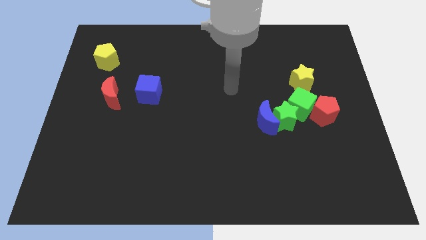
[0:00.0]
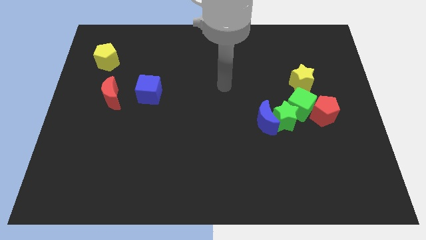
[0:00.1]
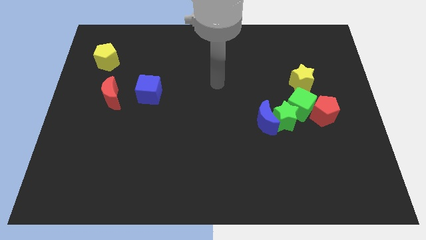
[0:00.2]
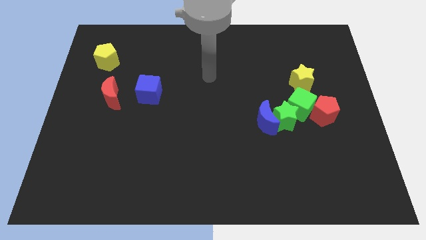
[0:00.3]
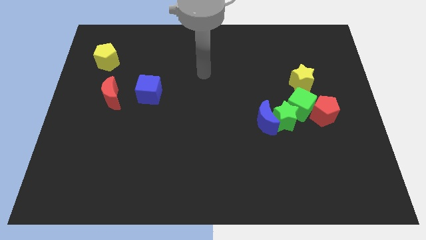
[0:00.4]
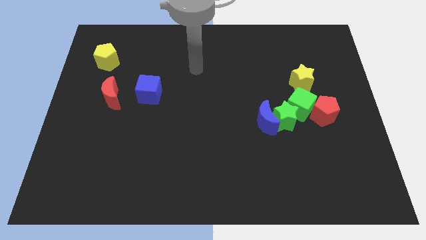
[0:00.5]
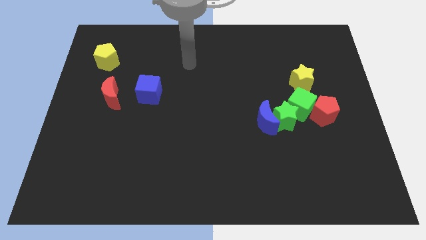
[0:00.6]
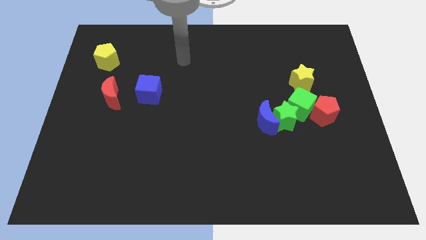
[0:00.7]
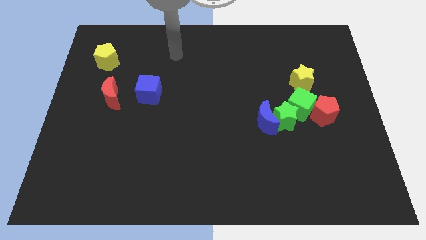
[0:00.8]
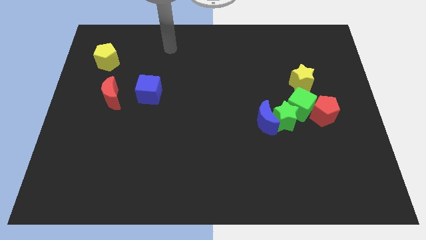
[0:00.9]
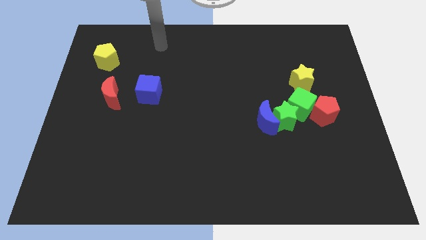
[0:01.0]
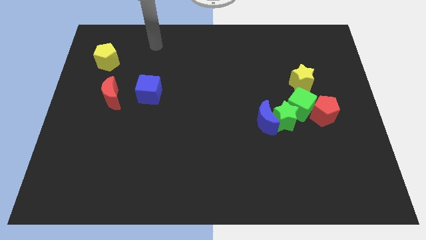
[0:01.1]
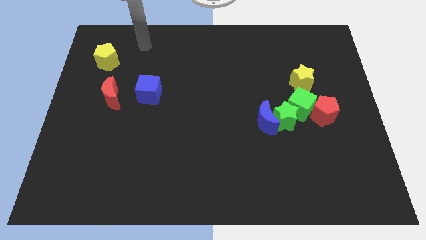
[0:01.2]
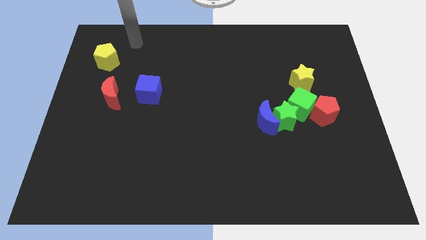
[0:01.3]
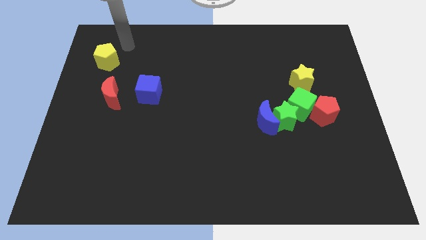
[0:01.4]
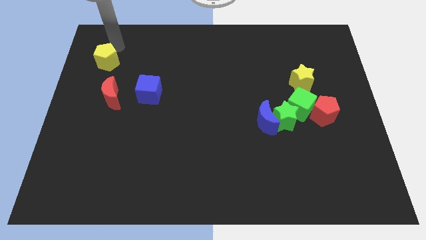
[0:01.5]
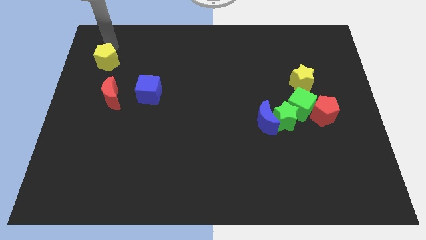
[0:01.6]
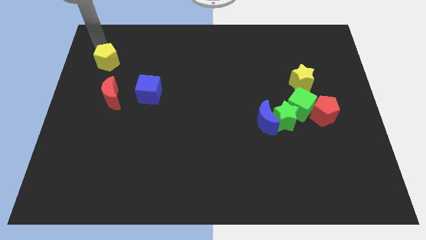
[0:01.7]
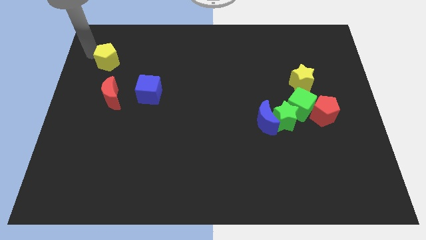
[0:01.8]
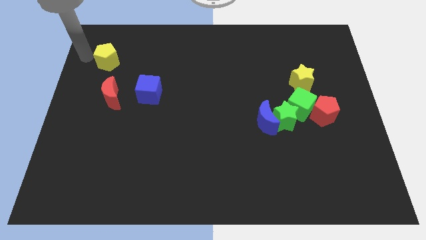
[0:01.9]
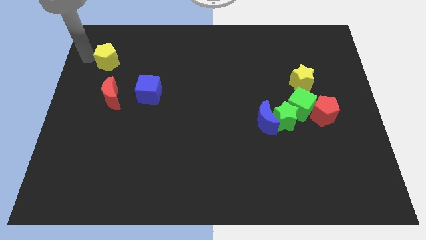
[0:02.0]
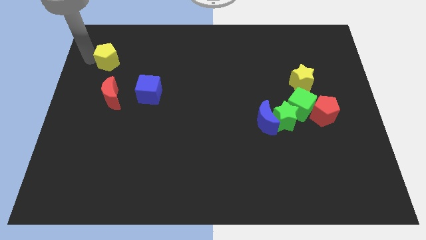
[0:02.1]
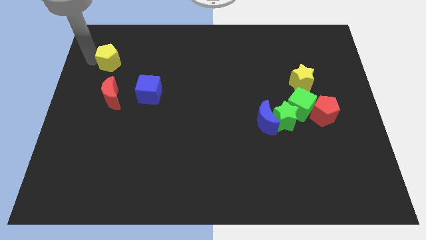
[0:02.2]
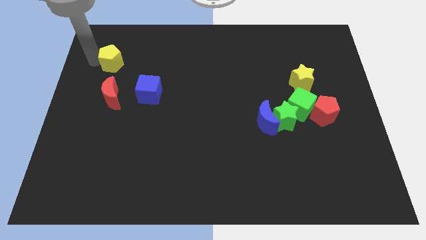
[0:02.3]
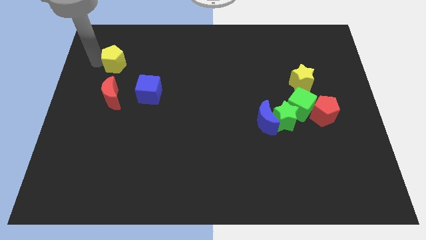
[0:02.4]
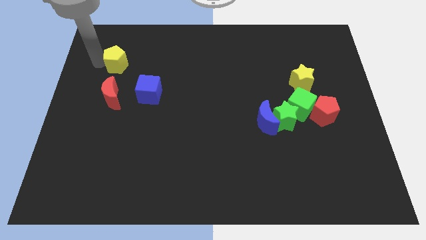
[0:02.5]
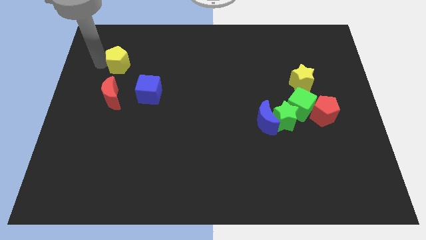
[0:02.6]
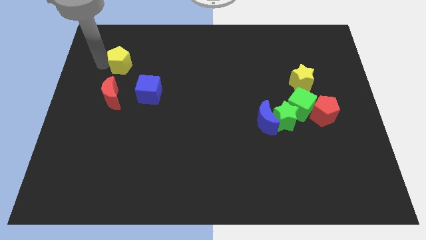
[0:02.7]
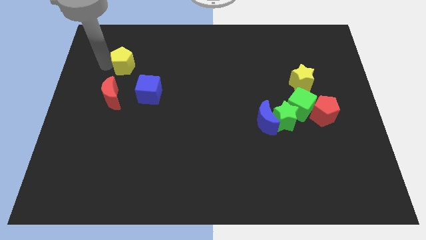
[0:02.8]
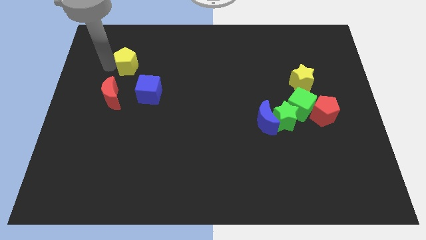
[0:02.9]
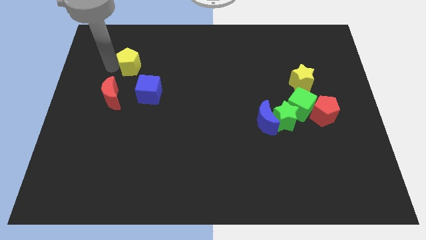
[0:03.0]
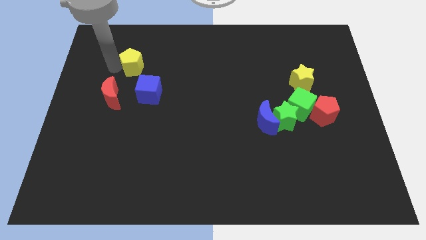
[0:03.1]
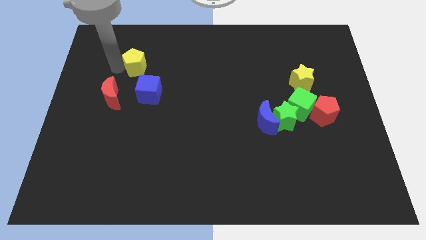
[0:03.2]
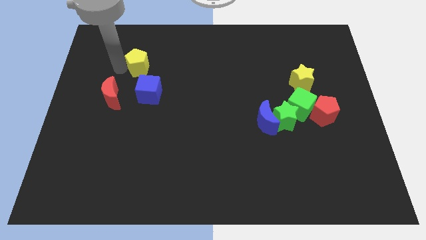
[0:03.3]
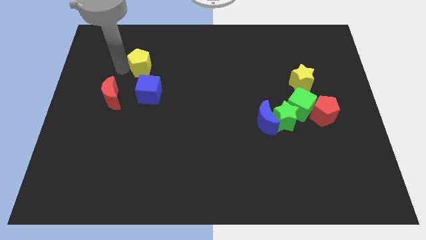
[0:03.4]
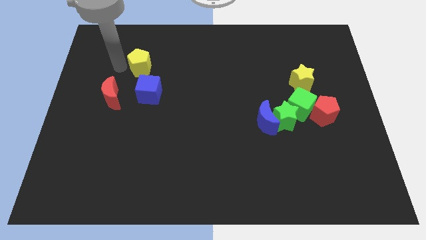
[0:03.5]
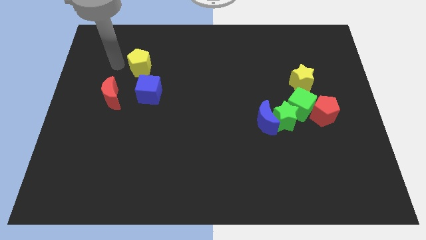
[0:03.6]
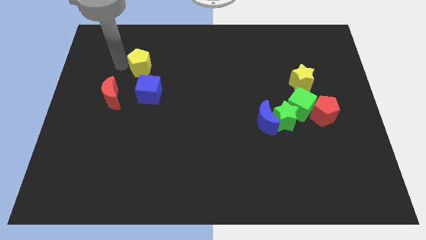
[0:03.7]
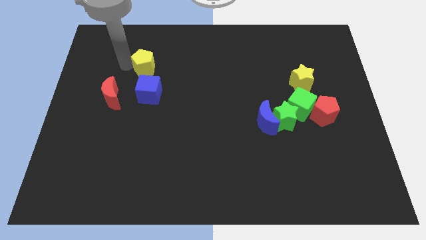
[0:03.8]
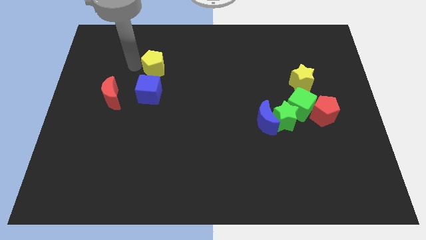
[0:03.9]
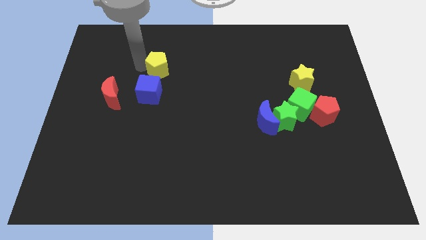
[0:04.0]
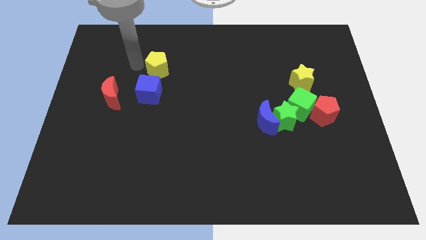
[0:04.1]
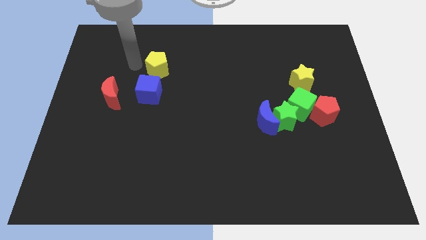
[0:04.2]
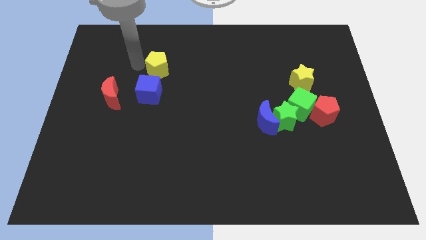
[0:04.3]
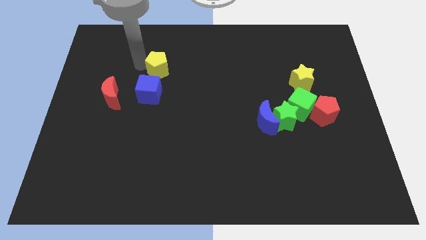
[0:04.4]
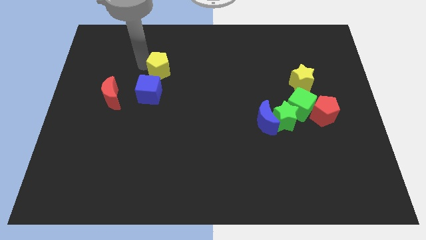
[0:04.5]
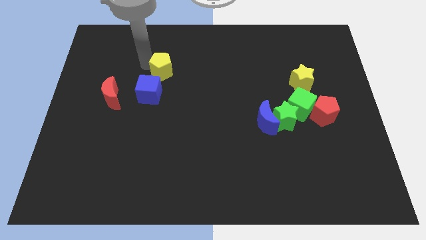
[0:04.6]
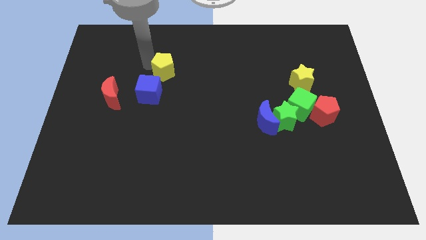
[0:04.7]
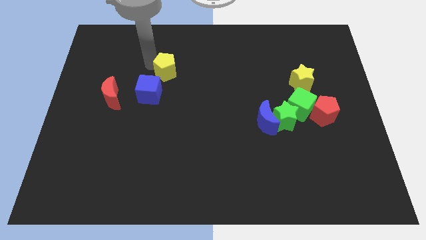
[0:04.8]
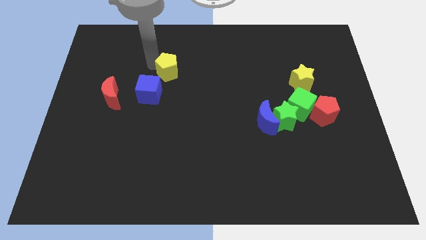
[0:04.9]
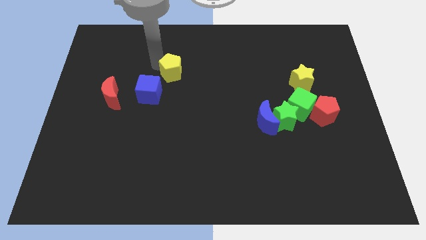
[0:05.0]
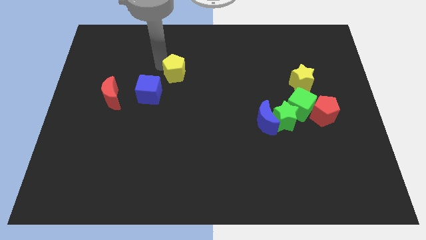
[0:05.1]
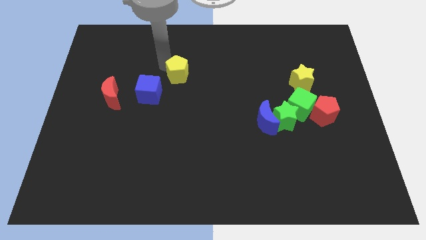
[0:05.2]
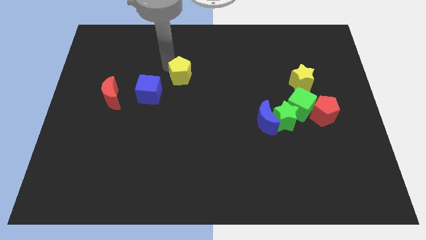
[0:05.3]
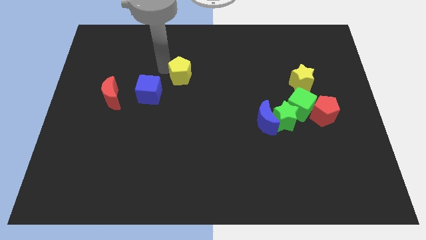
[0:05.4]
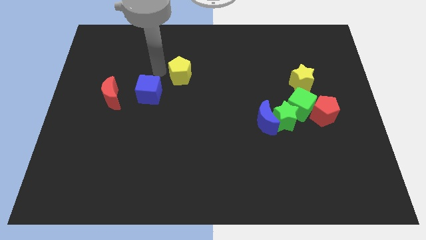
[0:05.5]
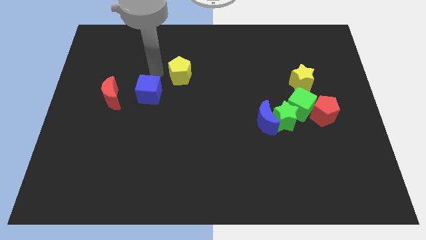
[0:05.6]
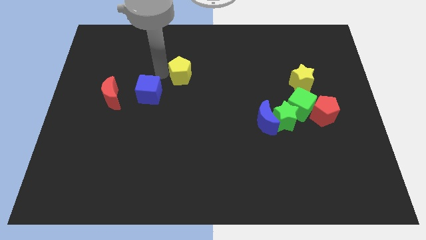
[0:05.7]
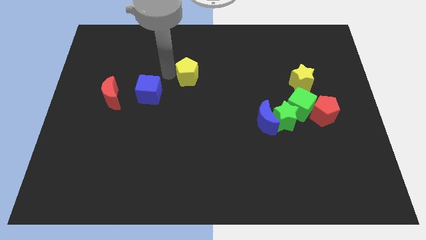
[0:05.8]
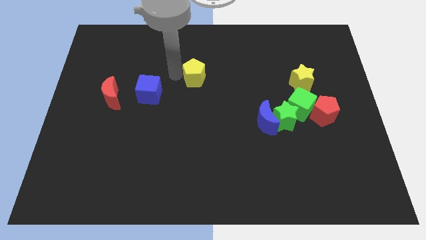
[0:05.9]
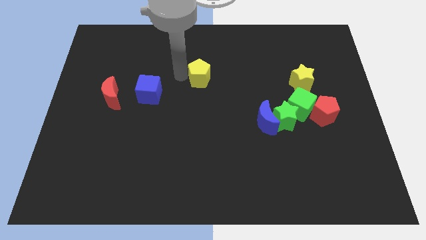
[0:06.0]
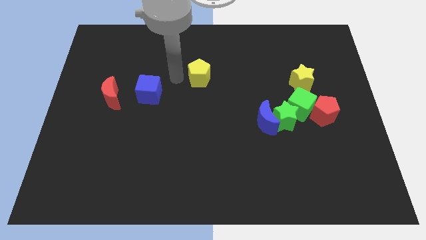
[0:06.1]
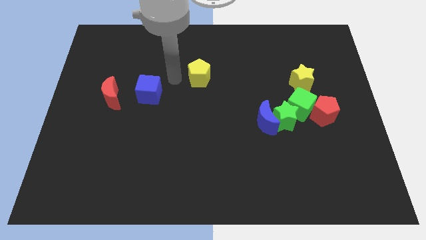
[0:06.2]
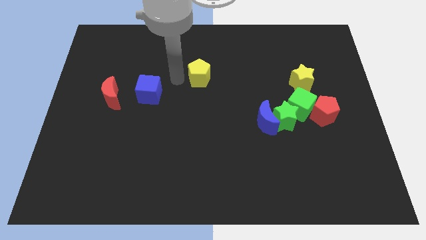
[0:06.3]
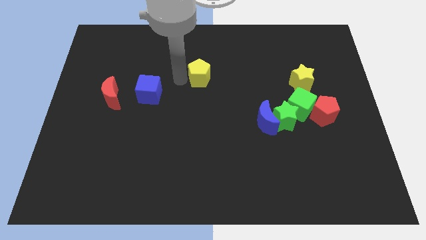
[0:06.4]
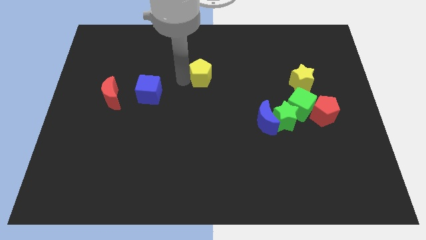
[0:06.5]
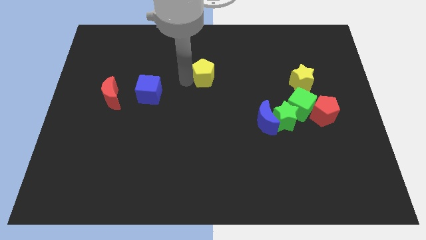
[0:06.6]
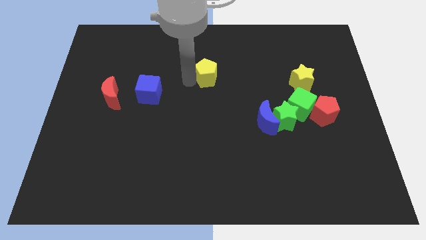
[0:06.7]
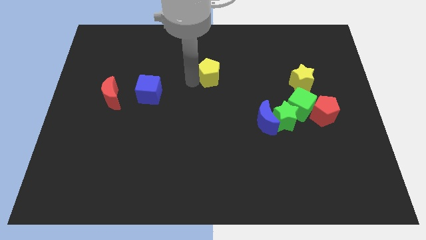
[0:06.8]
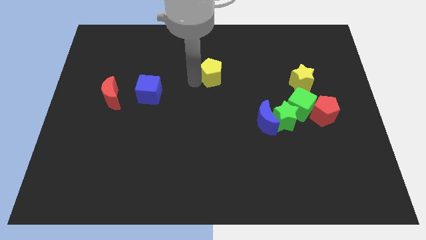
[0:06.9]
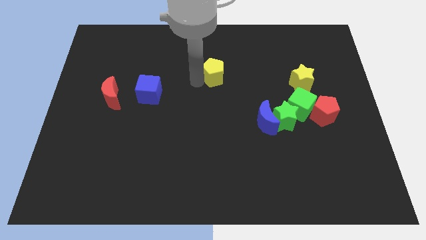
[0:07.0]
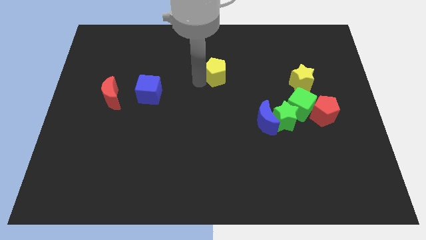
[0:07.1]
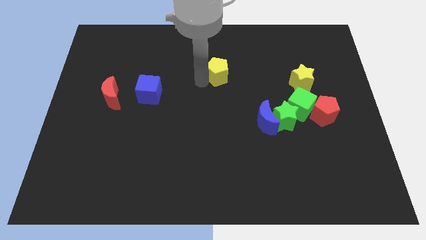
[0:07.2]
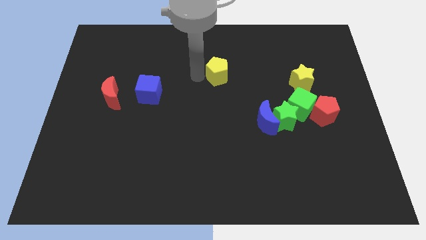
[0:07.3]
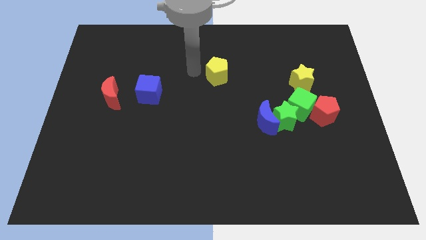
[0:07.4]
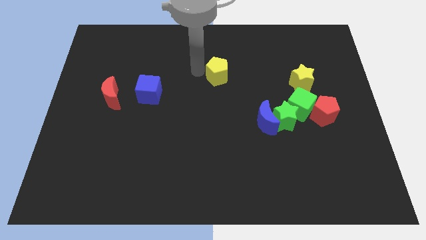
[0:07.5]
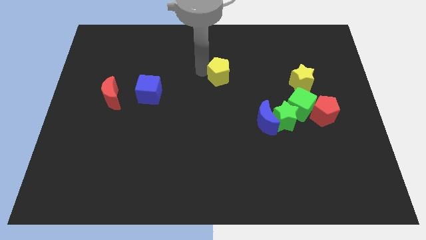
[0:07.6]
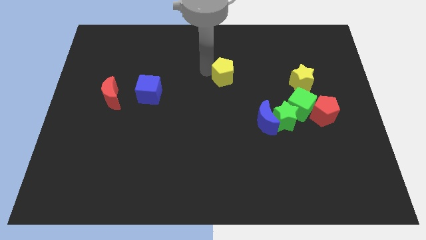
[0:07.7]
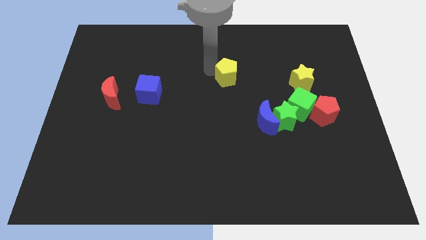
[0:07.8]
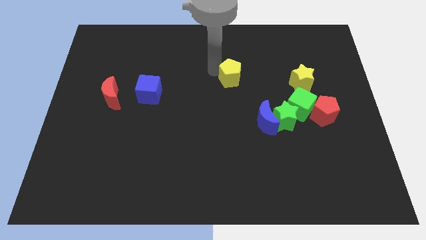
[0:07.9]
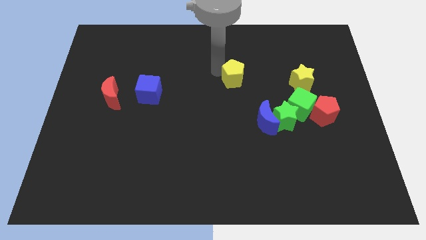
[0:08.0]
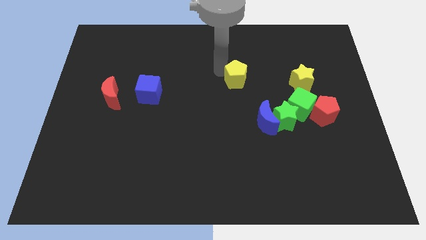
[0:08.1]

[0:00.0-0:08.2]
slide the yellow pentagon just left of the yellow star
